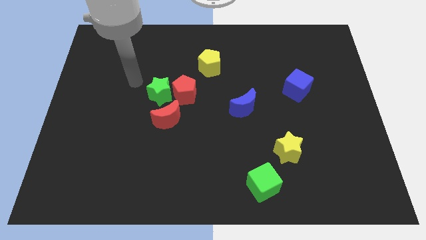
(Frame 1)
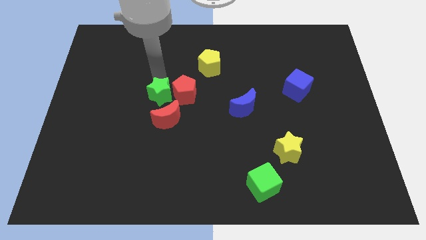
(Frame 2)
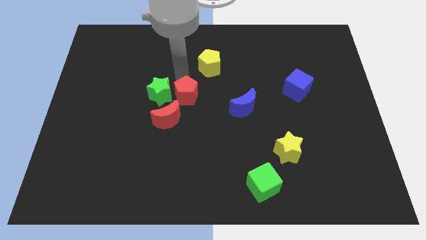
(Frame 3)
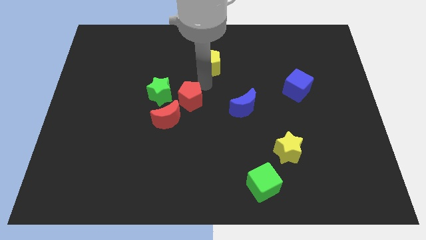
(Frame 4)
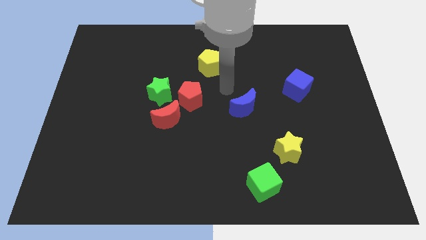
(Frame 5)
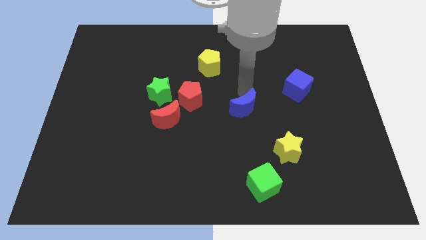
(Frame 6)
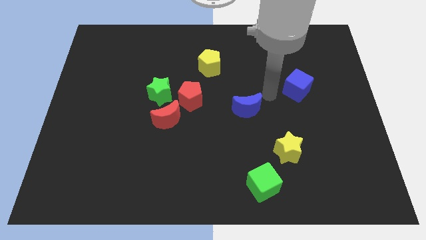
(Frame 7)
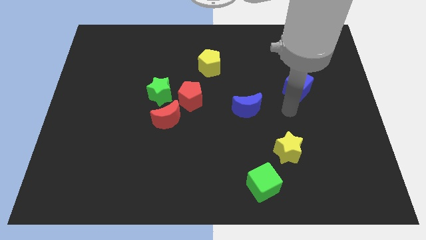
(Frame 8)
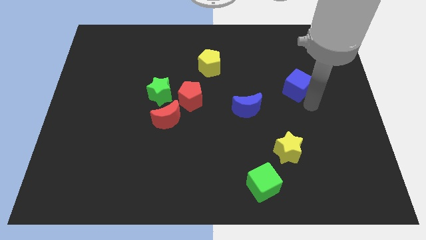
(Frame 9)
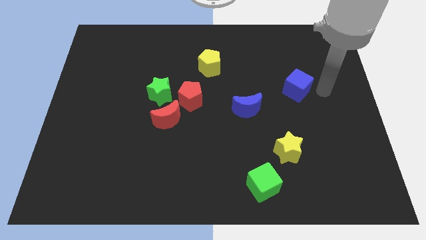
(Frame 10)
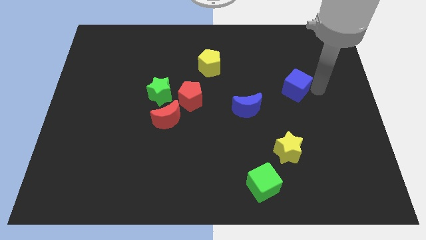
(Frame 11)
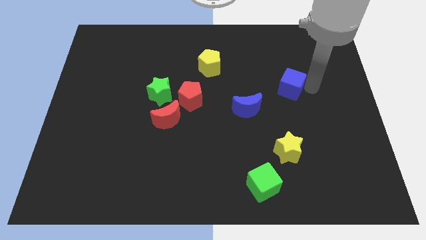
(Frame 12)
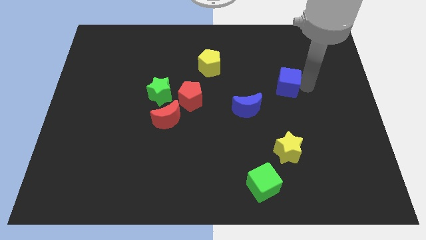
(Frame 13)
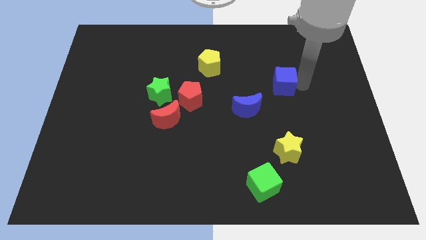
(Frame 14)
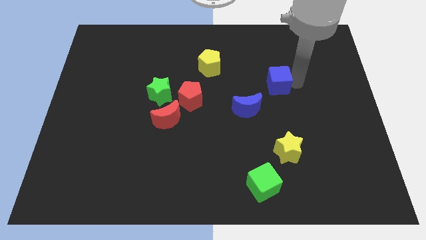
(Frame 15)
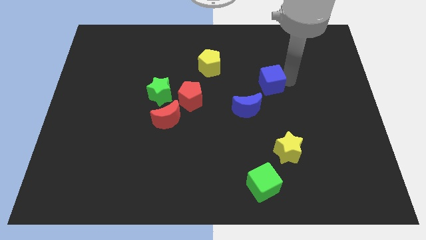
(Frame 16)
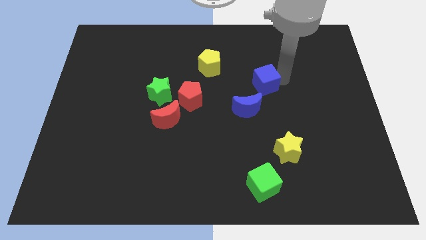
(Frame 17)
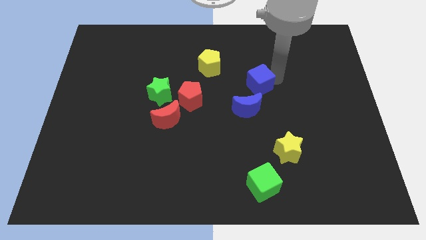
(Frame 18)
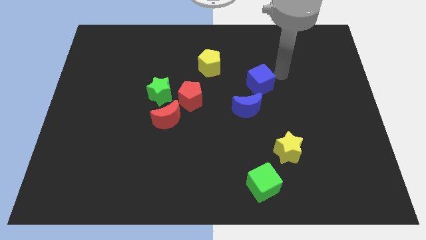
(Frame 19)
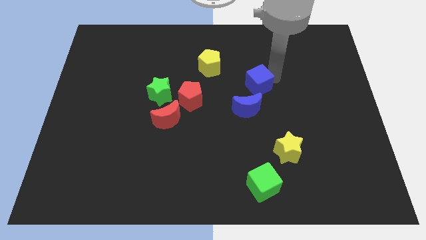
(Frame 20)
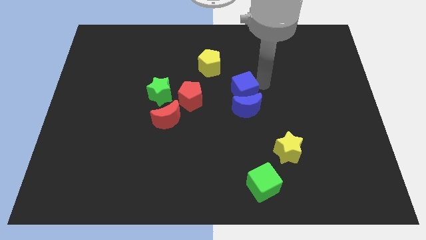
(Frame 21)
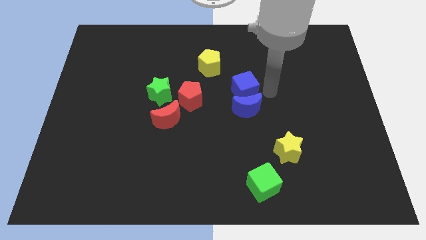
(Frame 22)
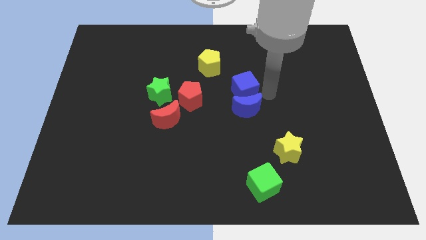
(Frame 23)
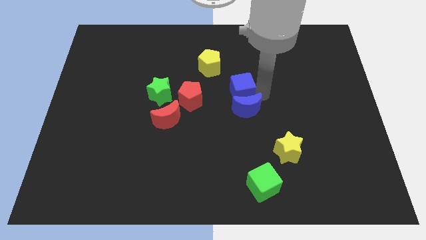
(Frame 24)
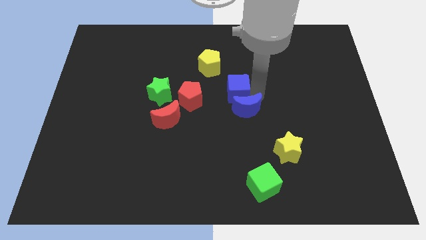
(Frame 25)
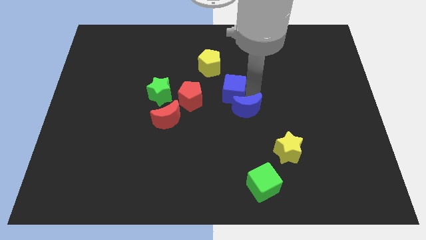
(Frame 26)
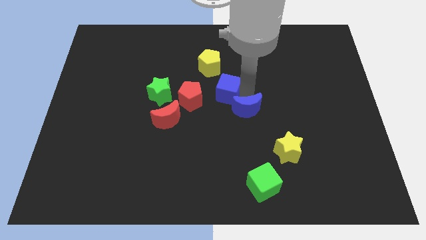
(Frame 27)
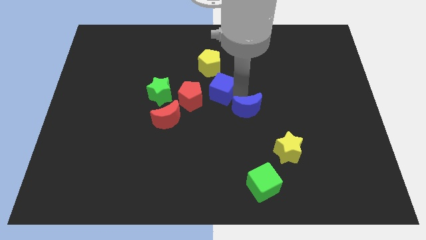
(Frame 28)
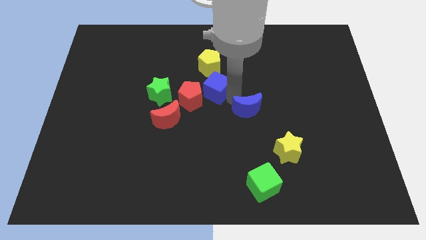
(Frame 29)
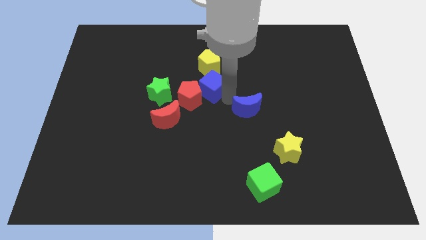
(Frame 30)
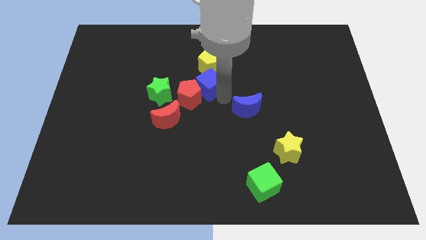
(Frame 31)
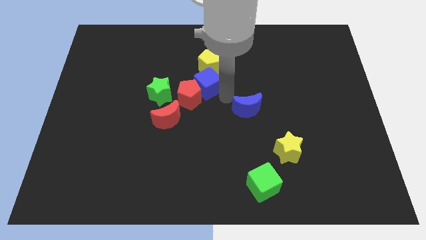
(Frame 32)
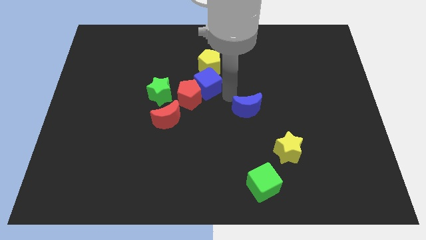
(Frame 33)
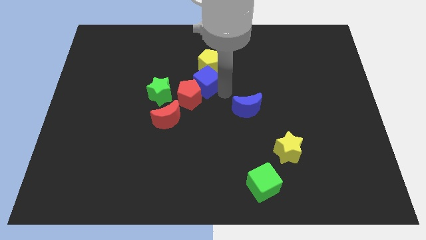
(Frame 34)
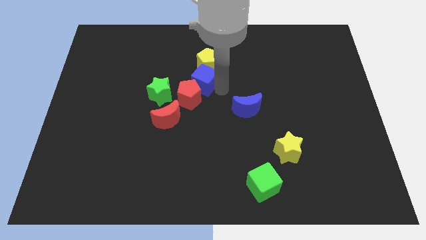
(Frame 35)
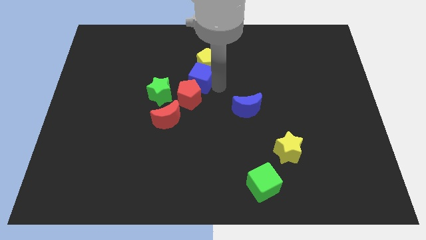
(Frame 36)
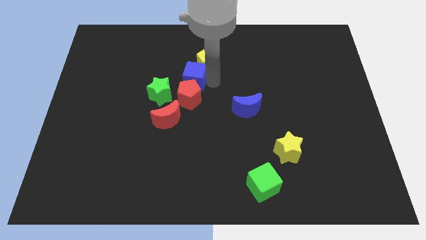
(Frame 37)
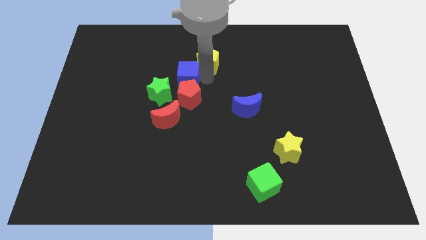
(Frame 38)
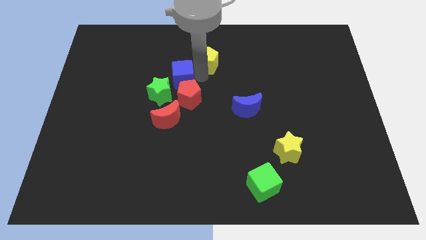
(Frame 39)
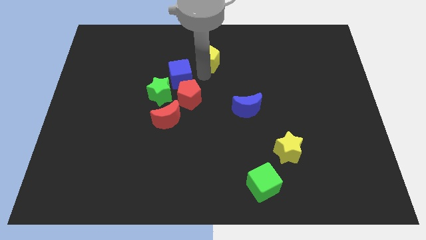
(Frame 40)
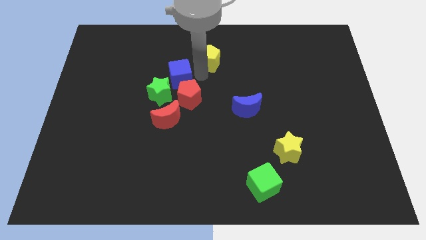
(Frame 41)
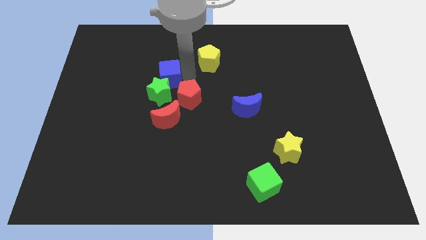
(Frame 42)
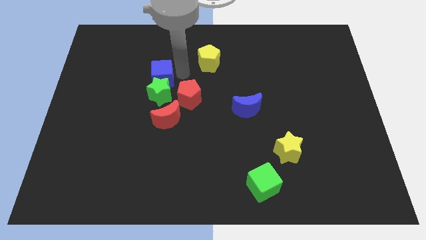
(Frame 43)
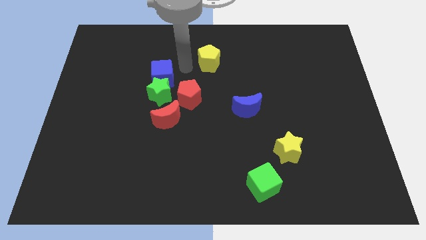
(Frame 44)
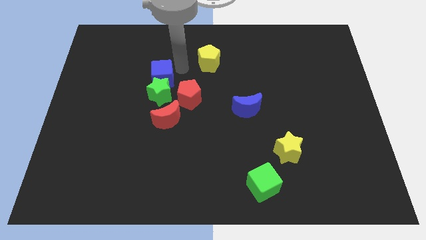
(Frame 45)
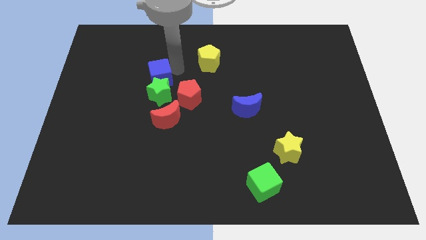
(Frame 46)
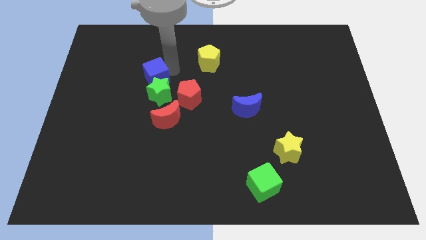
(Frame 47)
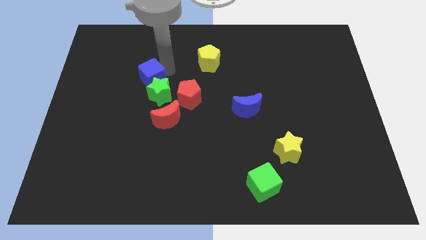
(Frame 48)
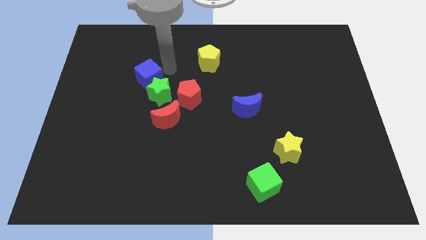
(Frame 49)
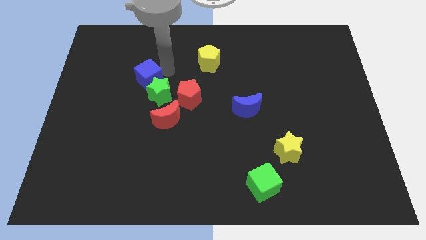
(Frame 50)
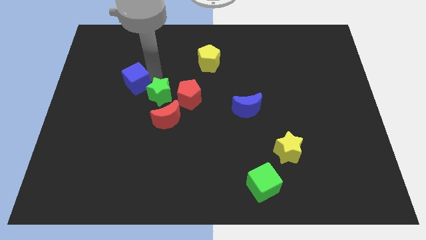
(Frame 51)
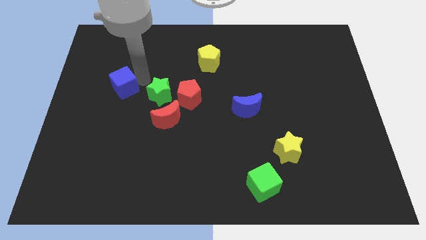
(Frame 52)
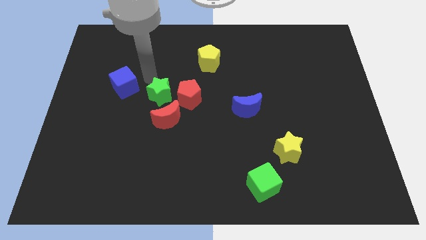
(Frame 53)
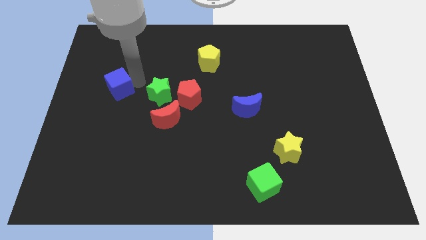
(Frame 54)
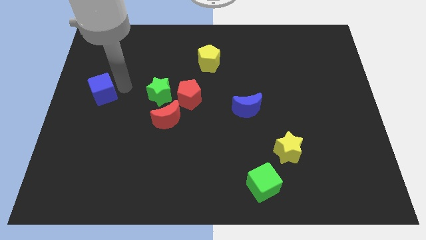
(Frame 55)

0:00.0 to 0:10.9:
push the blue cube to the left side of the board

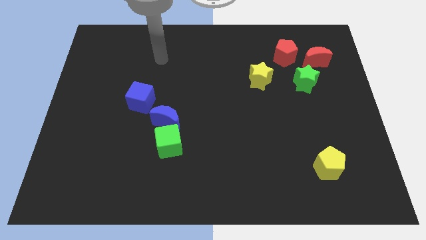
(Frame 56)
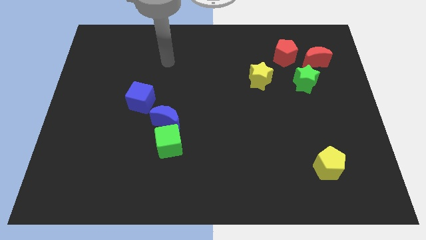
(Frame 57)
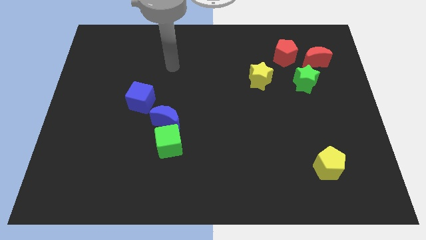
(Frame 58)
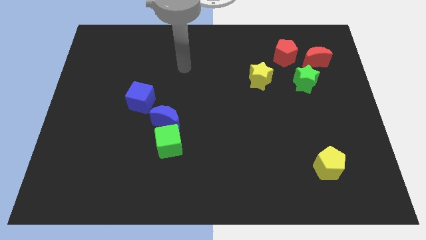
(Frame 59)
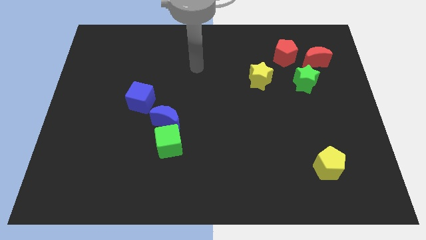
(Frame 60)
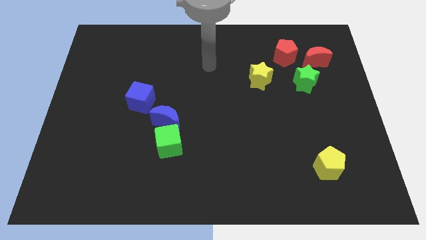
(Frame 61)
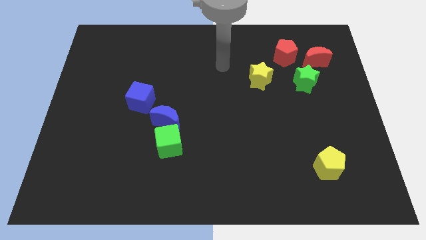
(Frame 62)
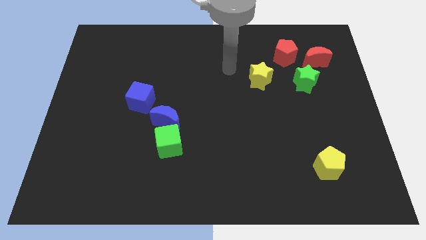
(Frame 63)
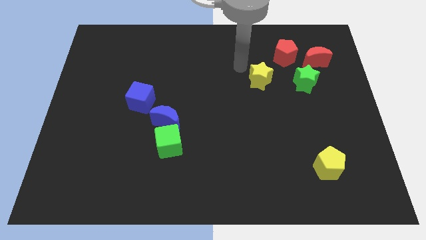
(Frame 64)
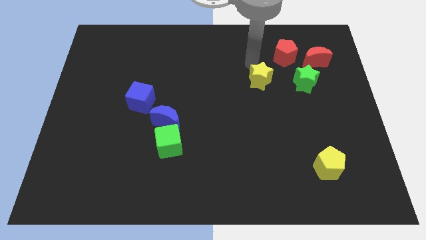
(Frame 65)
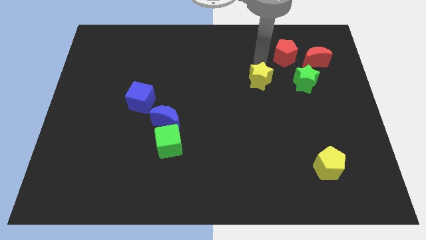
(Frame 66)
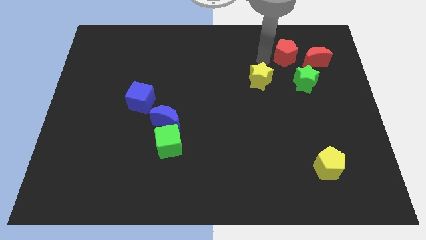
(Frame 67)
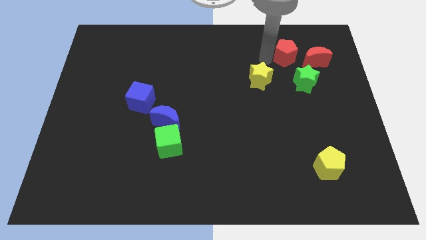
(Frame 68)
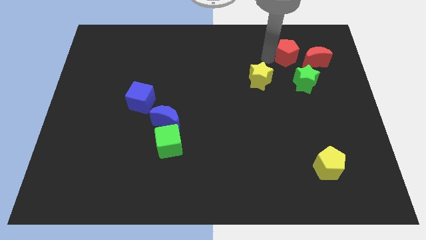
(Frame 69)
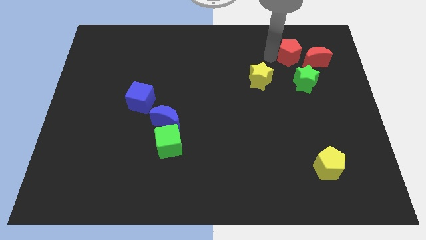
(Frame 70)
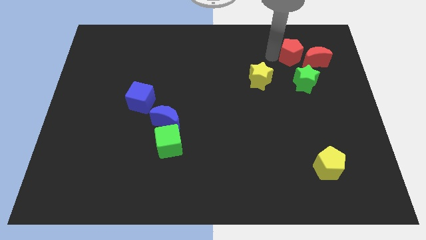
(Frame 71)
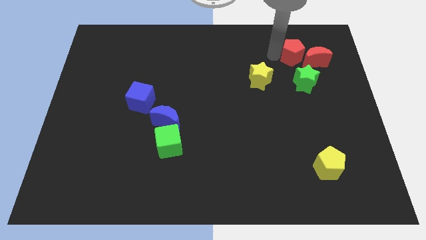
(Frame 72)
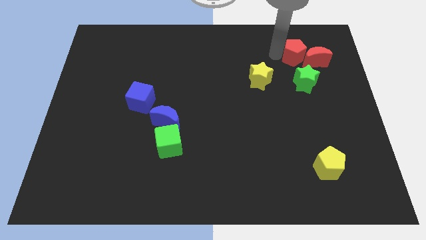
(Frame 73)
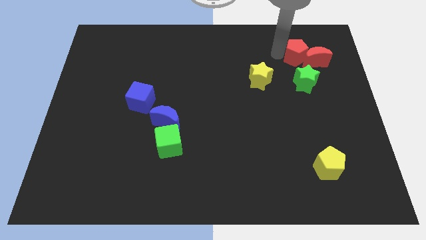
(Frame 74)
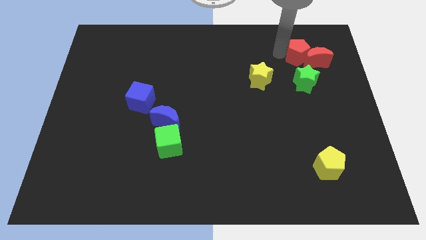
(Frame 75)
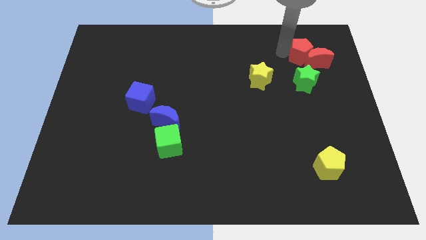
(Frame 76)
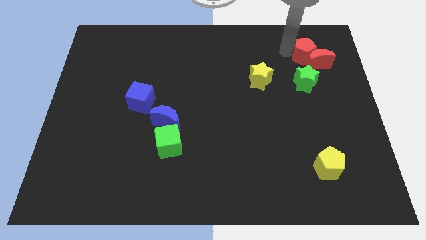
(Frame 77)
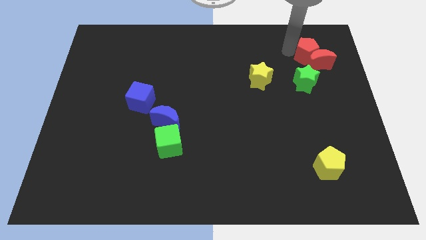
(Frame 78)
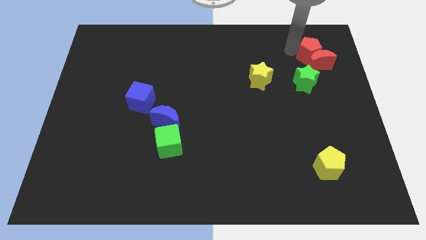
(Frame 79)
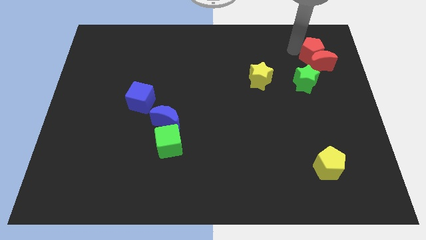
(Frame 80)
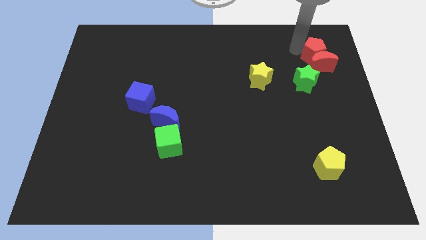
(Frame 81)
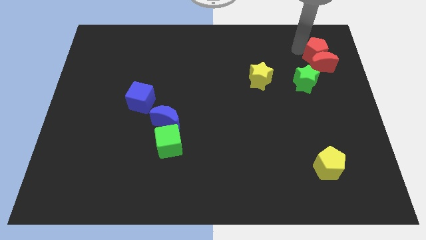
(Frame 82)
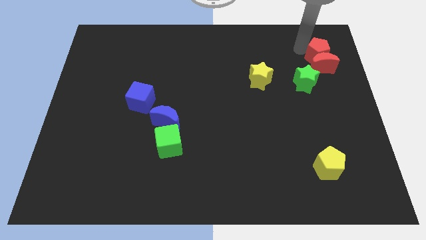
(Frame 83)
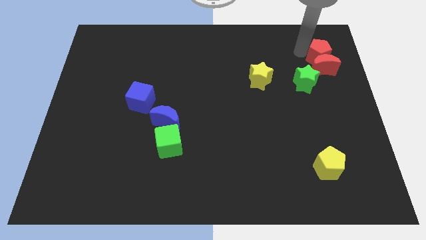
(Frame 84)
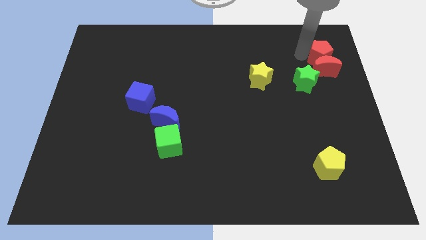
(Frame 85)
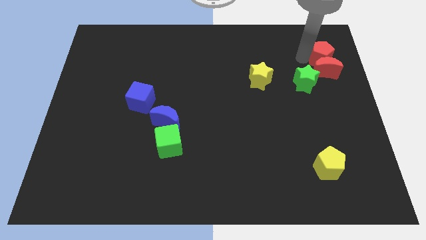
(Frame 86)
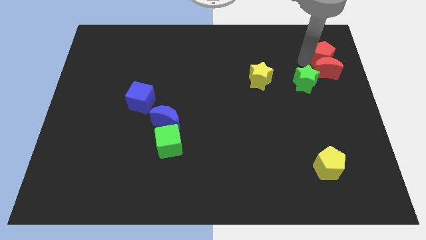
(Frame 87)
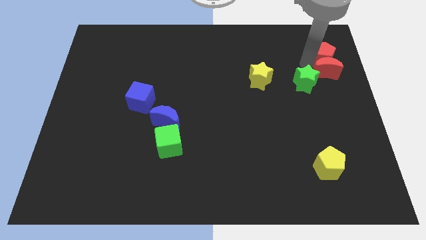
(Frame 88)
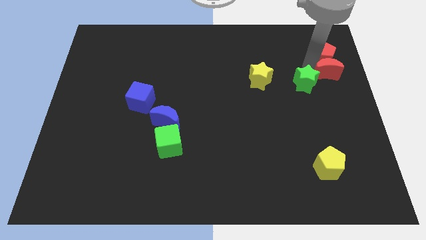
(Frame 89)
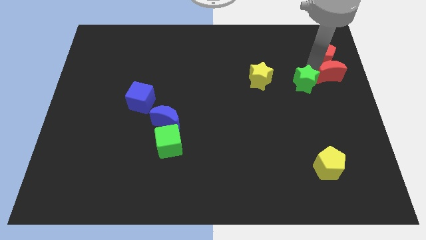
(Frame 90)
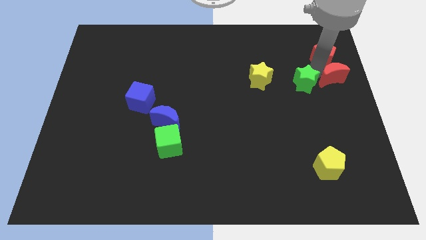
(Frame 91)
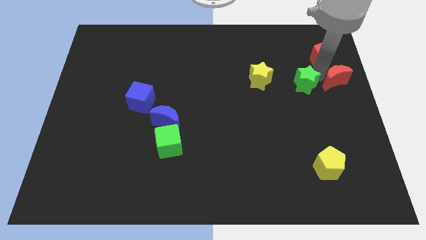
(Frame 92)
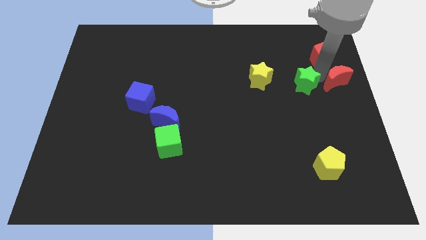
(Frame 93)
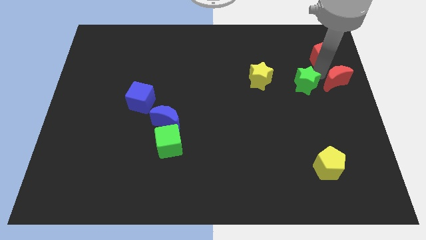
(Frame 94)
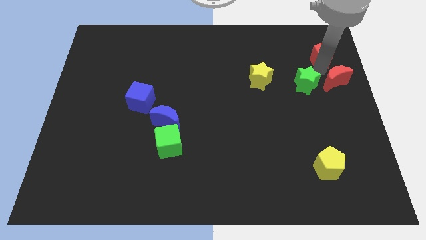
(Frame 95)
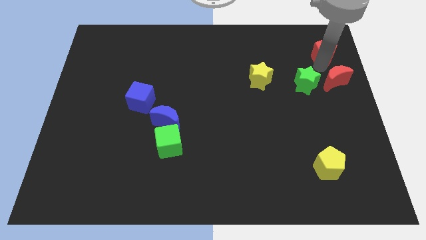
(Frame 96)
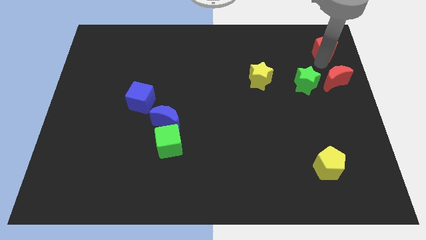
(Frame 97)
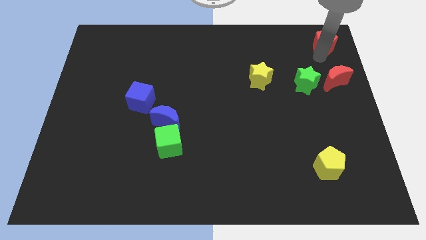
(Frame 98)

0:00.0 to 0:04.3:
move the red pentagon to the top right of the board
